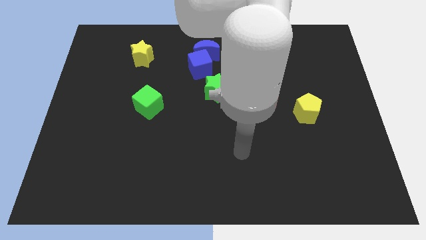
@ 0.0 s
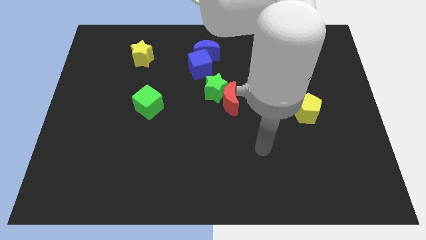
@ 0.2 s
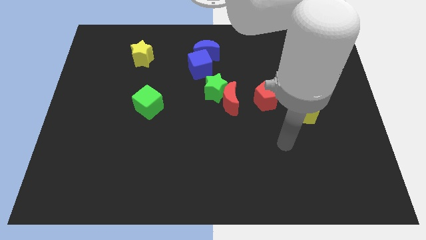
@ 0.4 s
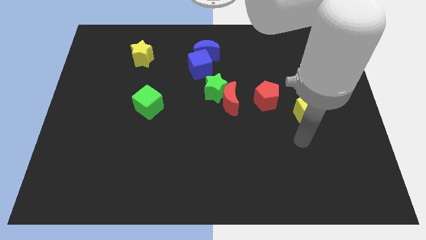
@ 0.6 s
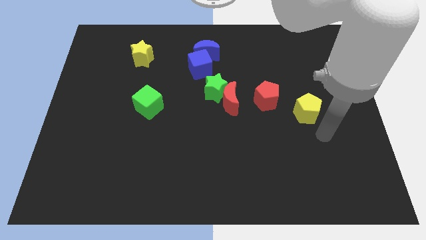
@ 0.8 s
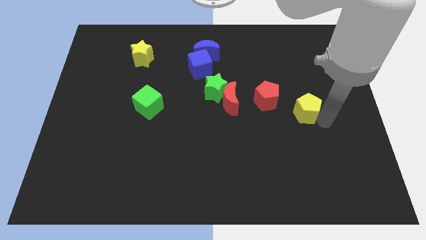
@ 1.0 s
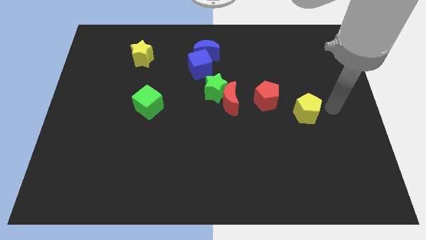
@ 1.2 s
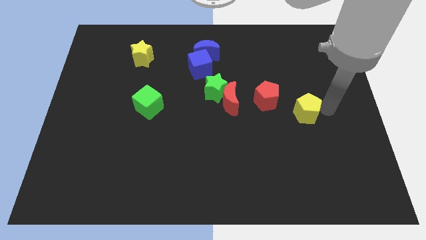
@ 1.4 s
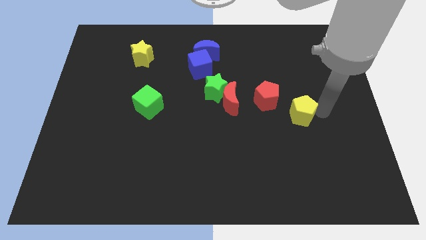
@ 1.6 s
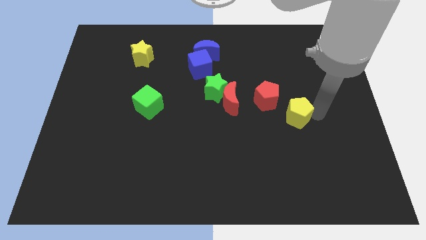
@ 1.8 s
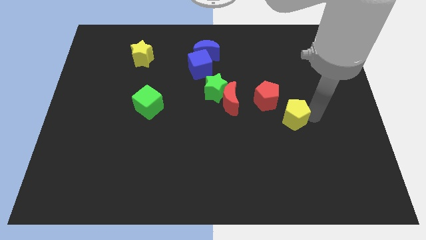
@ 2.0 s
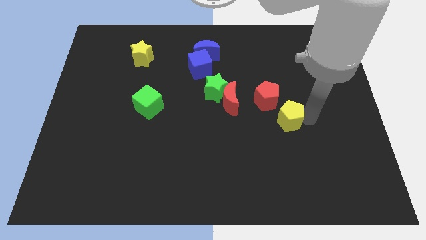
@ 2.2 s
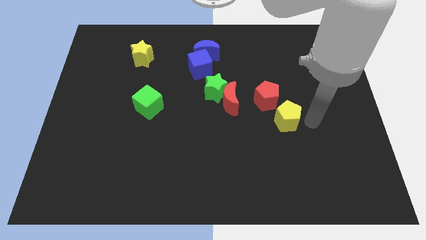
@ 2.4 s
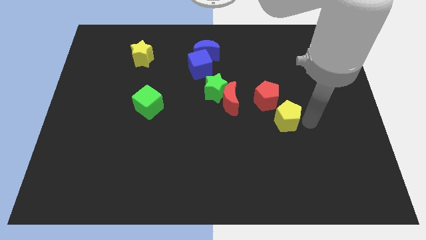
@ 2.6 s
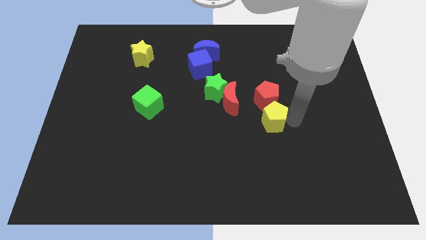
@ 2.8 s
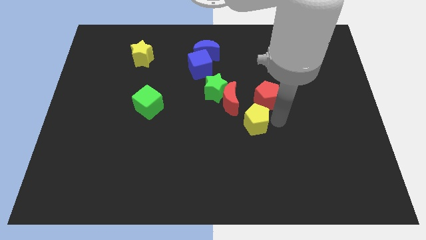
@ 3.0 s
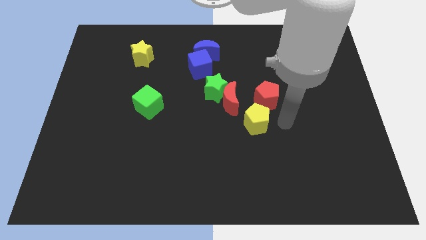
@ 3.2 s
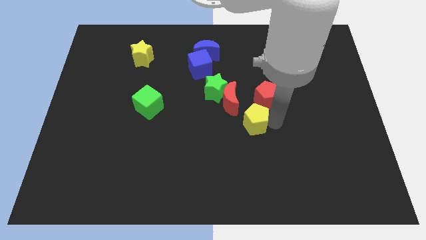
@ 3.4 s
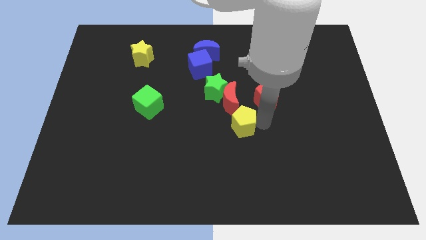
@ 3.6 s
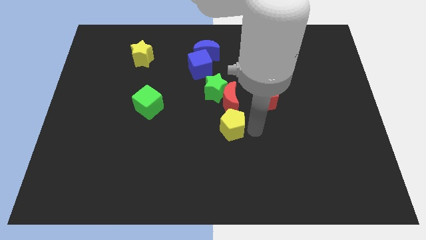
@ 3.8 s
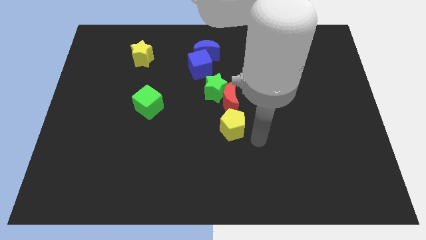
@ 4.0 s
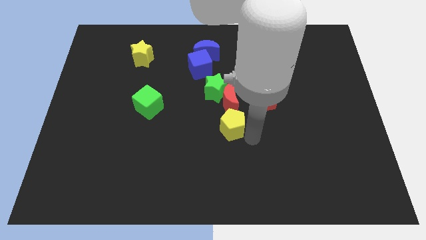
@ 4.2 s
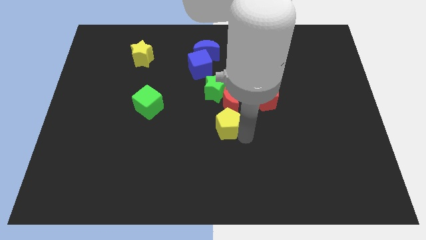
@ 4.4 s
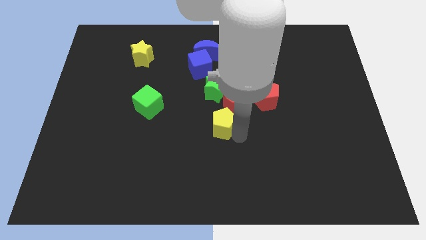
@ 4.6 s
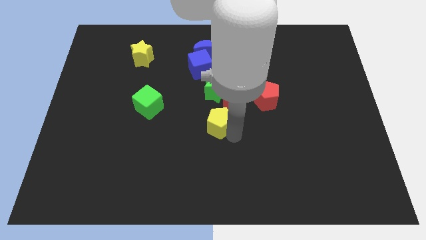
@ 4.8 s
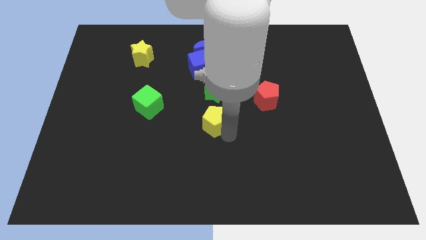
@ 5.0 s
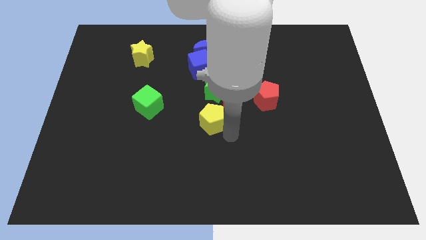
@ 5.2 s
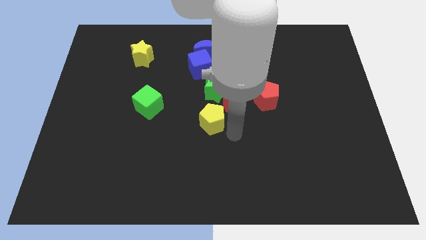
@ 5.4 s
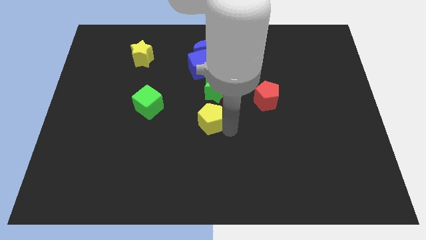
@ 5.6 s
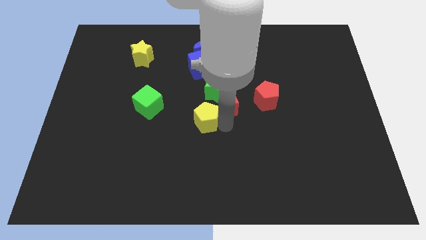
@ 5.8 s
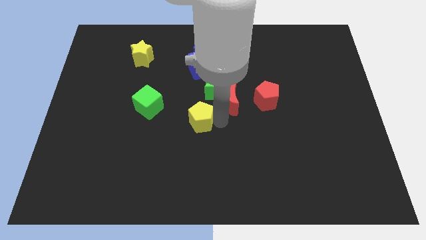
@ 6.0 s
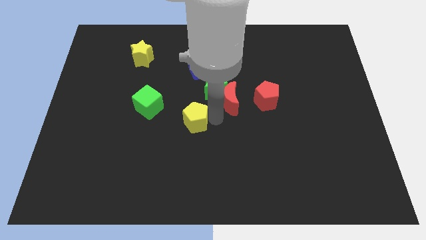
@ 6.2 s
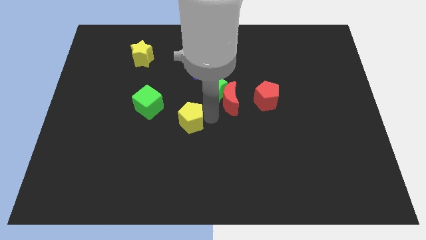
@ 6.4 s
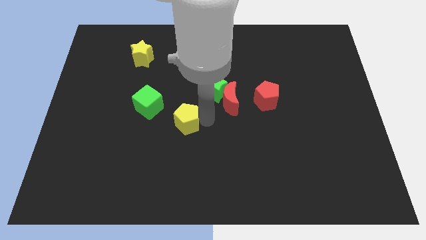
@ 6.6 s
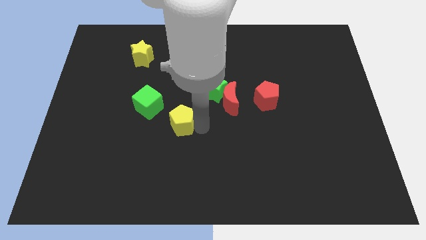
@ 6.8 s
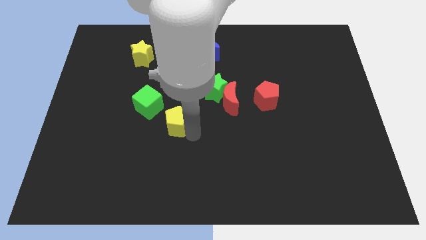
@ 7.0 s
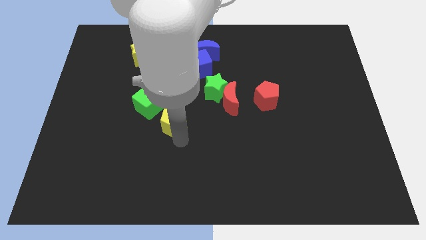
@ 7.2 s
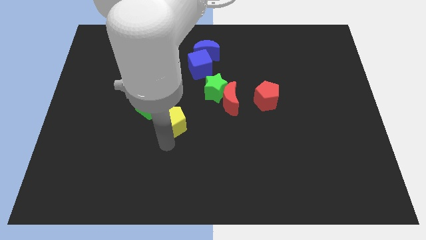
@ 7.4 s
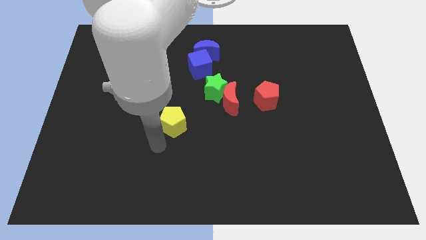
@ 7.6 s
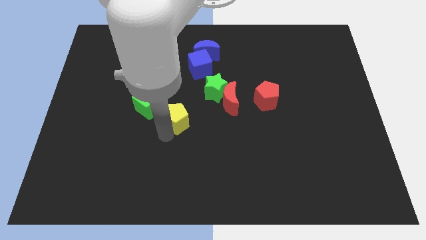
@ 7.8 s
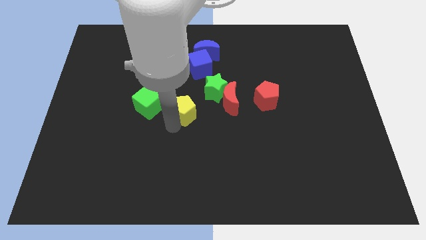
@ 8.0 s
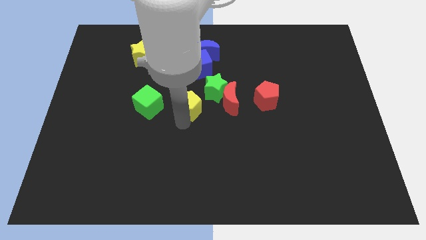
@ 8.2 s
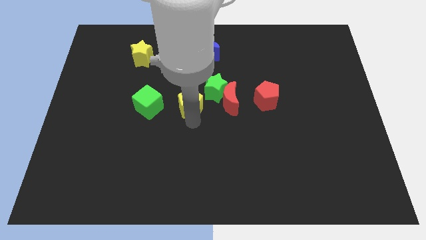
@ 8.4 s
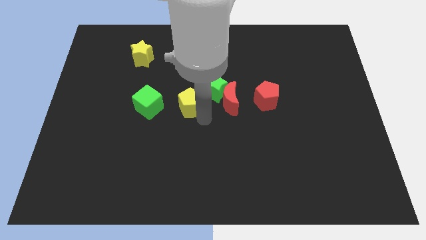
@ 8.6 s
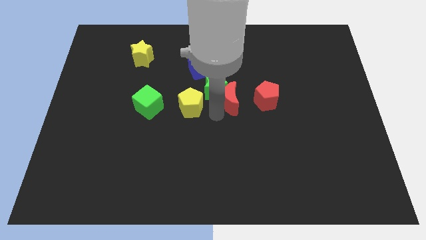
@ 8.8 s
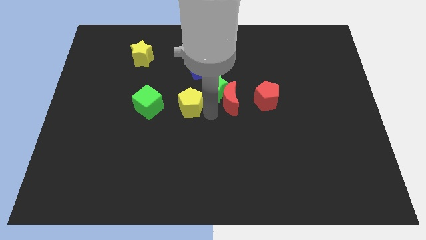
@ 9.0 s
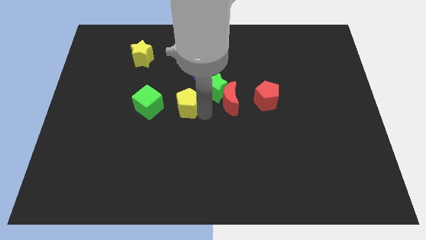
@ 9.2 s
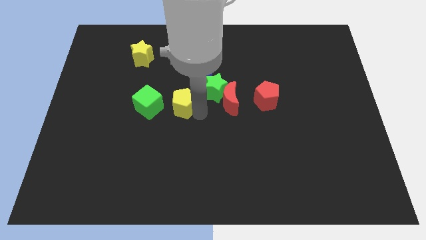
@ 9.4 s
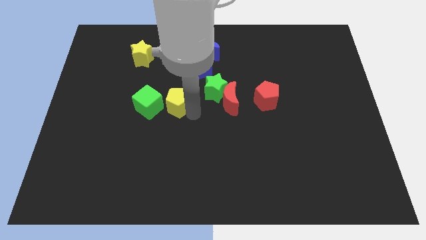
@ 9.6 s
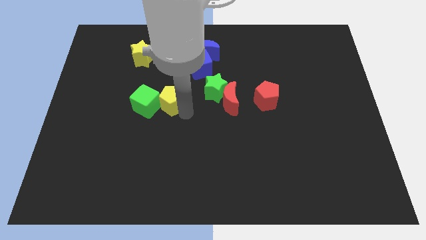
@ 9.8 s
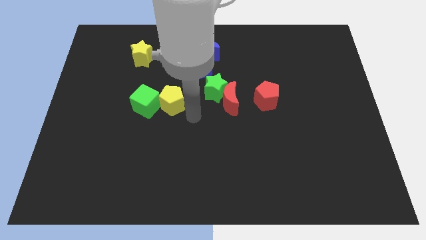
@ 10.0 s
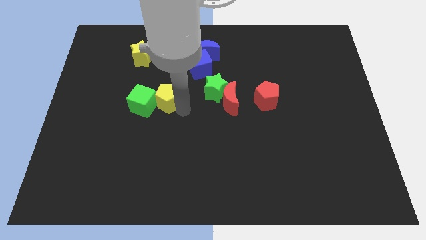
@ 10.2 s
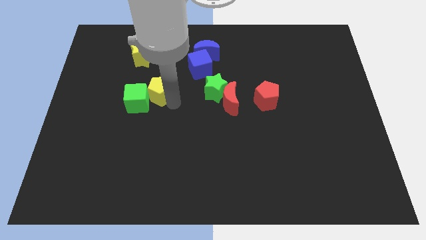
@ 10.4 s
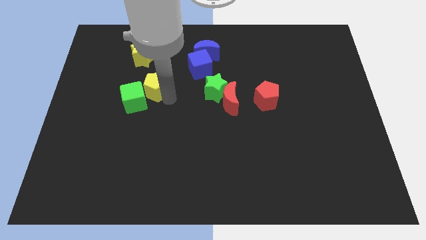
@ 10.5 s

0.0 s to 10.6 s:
push the yellow pentagon to the bottom of the yellow star

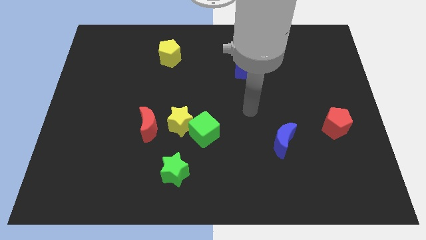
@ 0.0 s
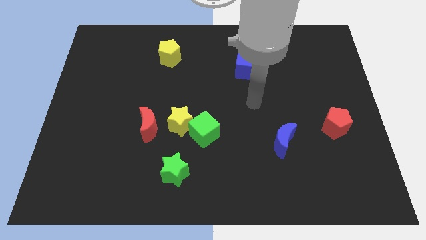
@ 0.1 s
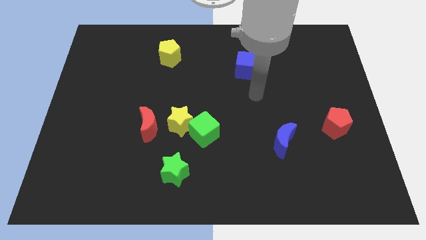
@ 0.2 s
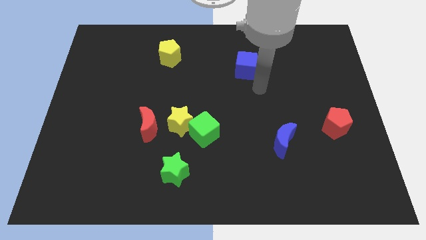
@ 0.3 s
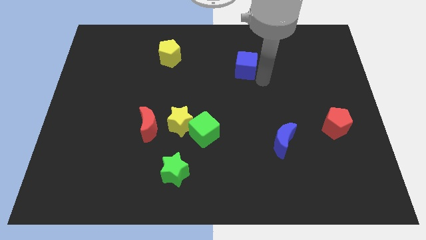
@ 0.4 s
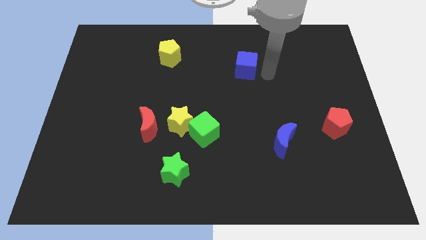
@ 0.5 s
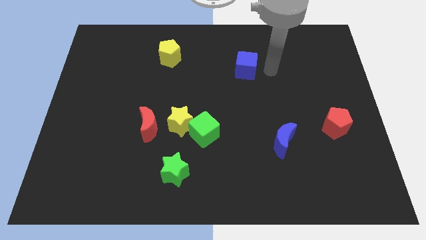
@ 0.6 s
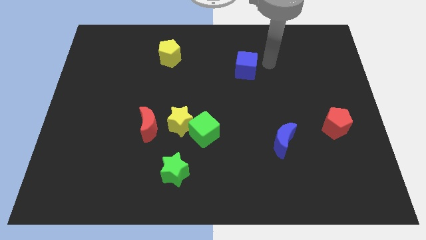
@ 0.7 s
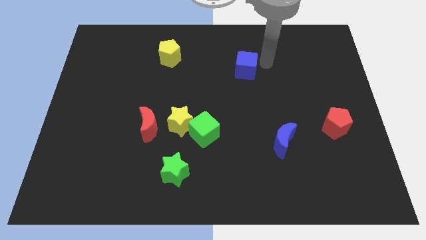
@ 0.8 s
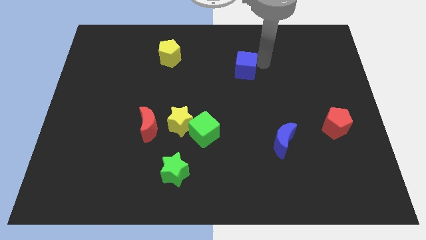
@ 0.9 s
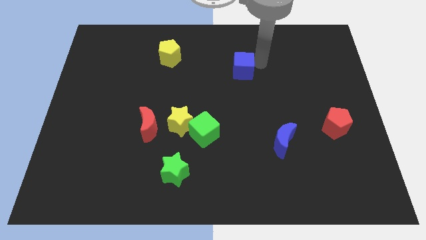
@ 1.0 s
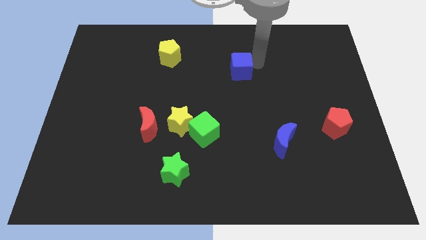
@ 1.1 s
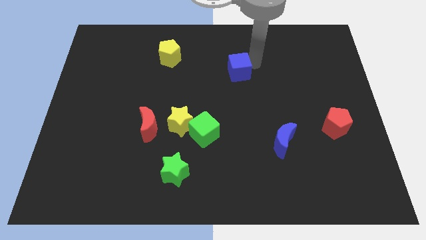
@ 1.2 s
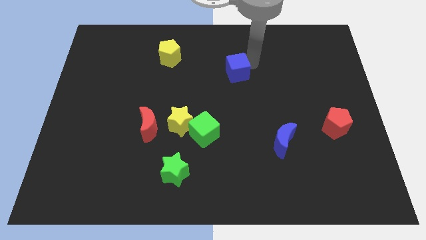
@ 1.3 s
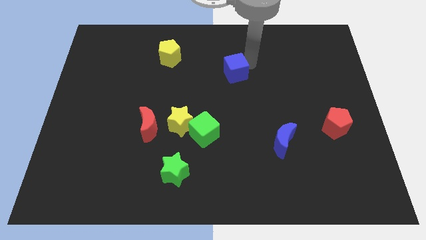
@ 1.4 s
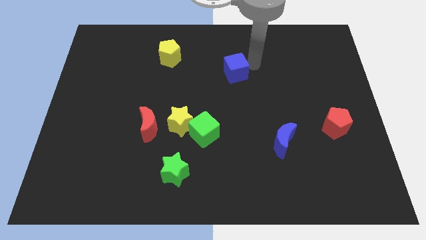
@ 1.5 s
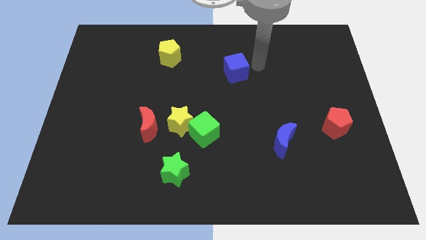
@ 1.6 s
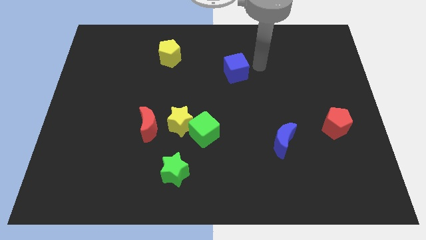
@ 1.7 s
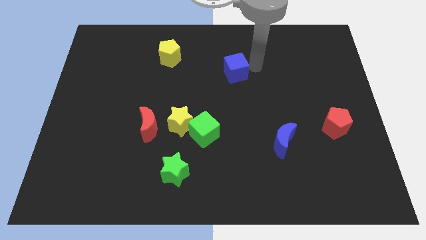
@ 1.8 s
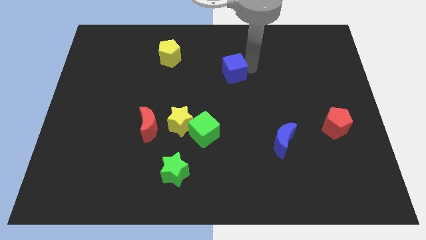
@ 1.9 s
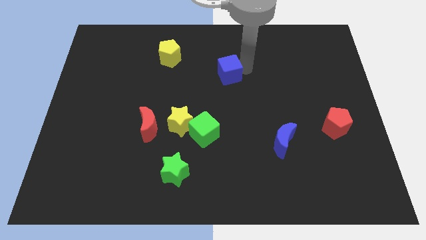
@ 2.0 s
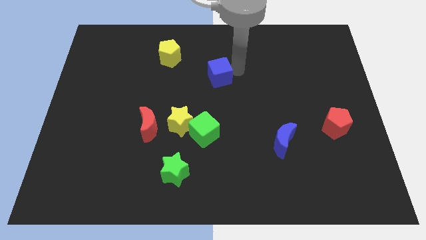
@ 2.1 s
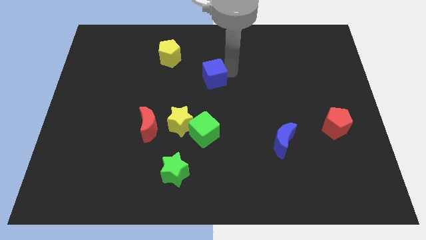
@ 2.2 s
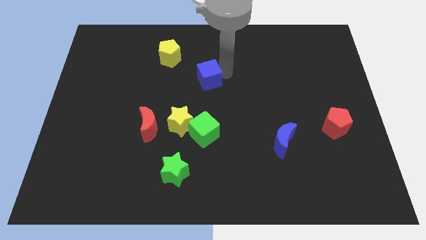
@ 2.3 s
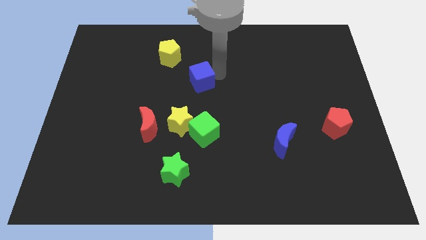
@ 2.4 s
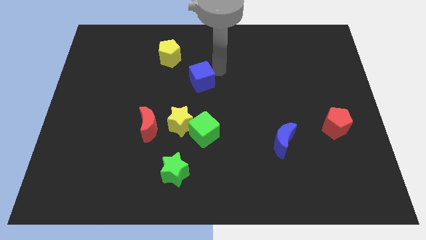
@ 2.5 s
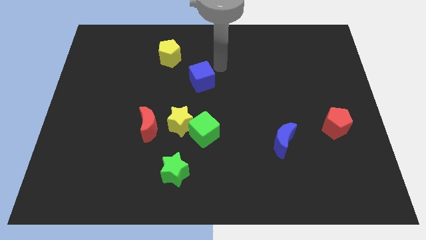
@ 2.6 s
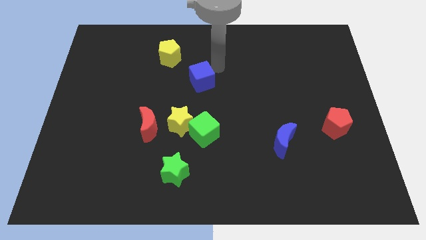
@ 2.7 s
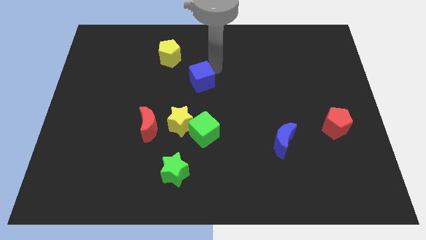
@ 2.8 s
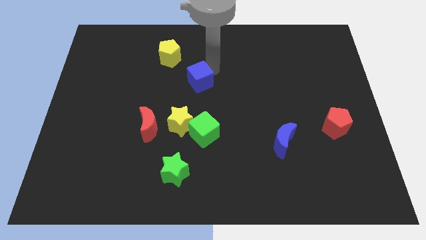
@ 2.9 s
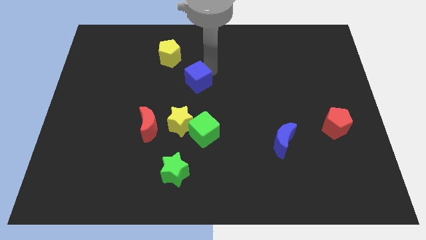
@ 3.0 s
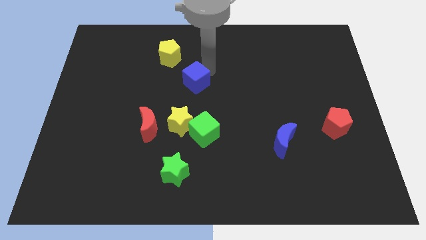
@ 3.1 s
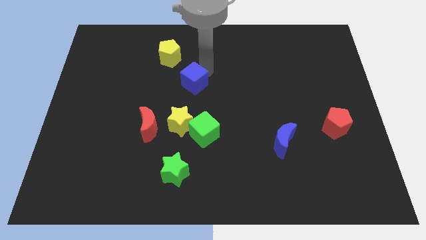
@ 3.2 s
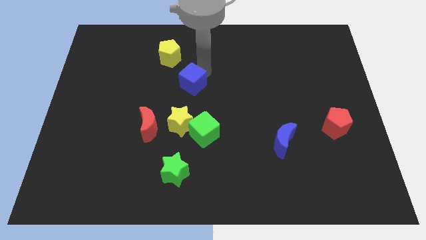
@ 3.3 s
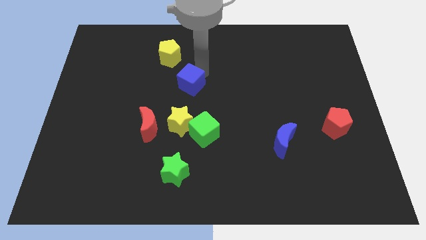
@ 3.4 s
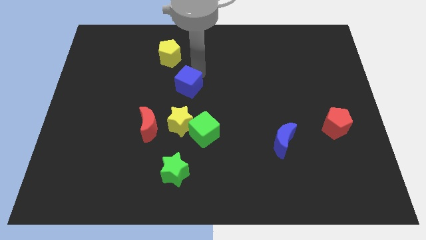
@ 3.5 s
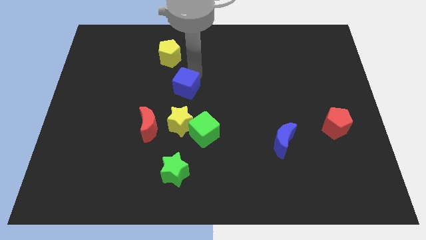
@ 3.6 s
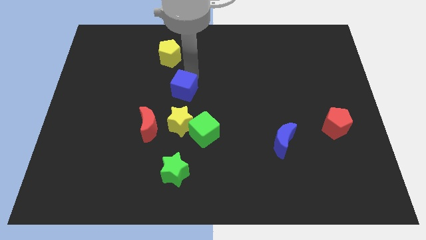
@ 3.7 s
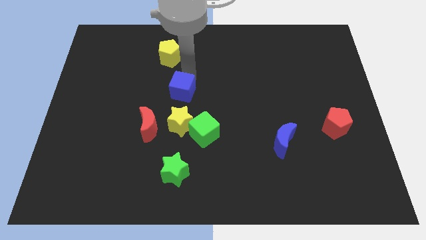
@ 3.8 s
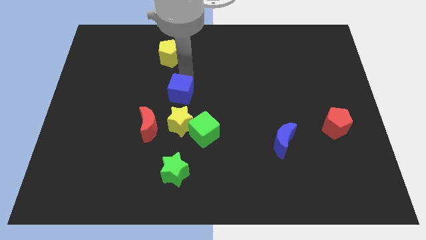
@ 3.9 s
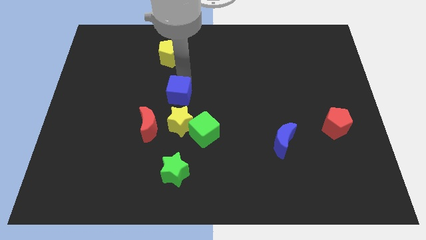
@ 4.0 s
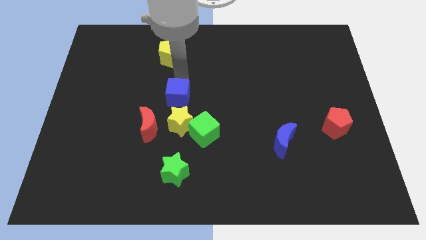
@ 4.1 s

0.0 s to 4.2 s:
move the blue cube to the top left side of the green cube
